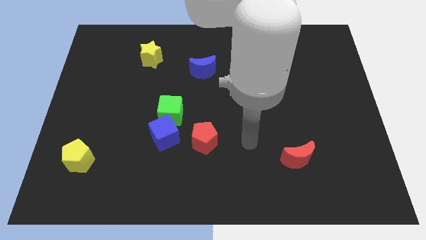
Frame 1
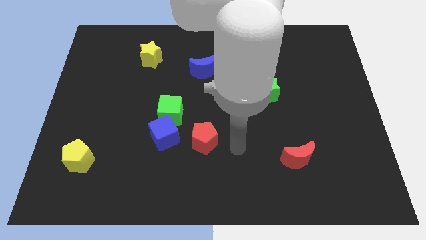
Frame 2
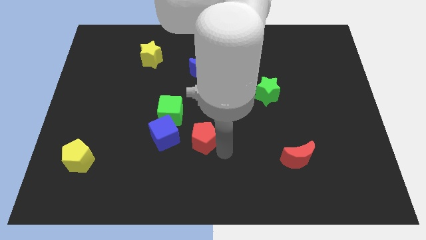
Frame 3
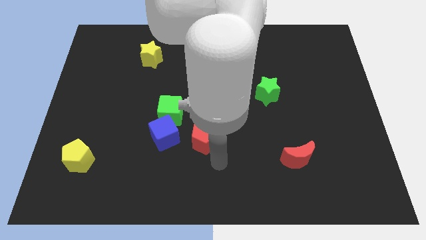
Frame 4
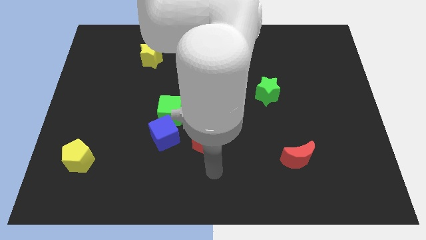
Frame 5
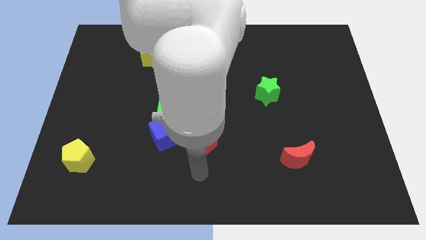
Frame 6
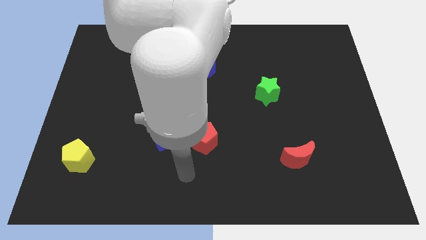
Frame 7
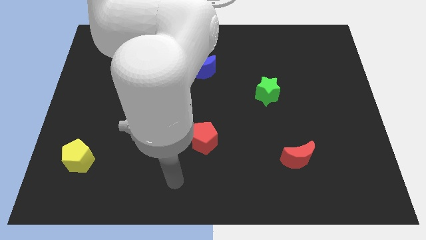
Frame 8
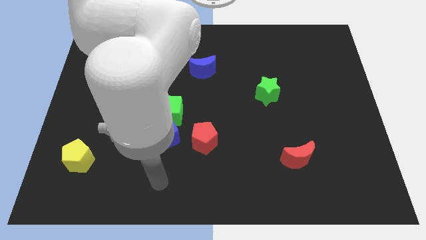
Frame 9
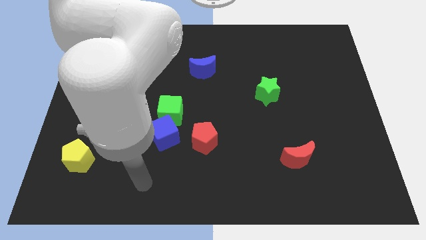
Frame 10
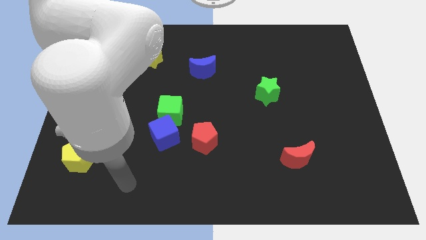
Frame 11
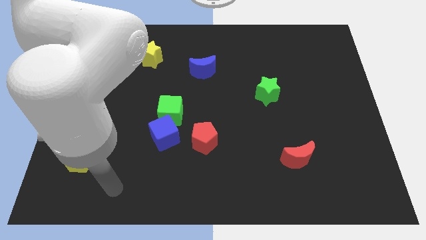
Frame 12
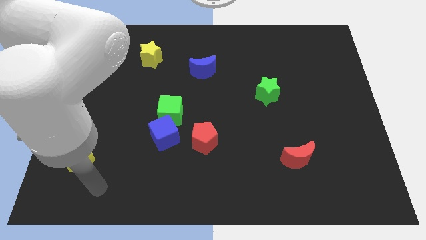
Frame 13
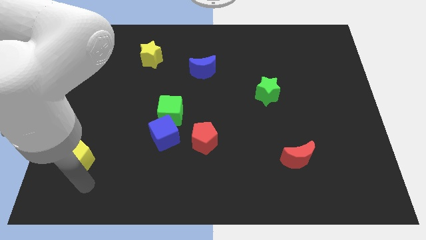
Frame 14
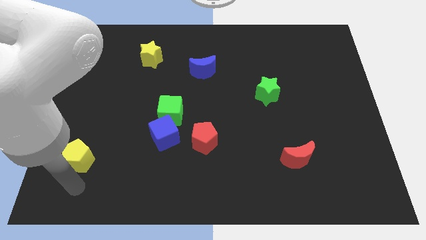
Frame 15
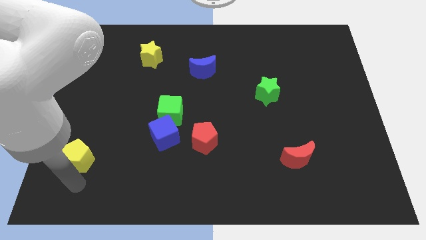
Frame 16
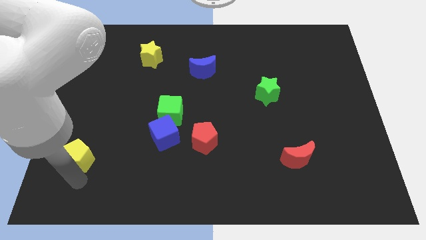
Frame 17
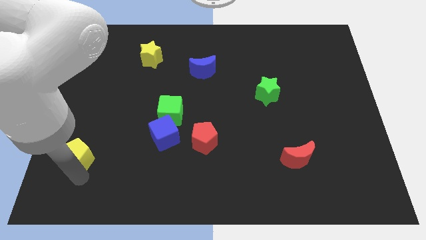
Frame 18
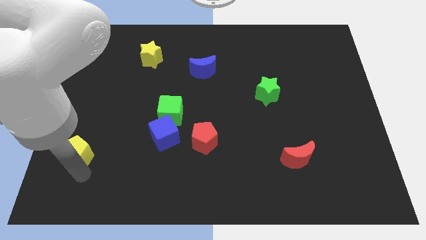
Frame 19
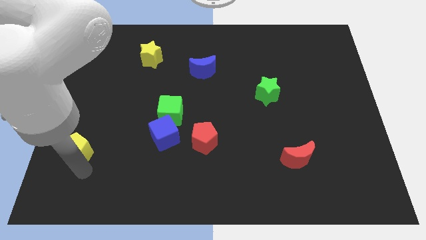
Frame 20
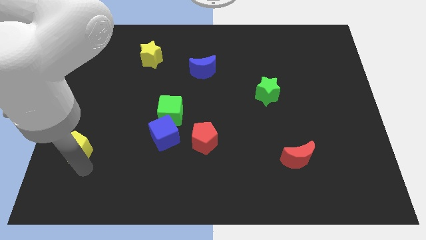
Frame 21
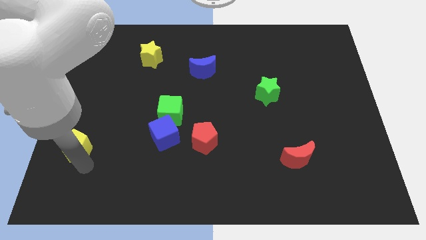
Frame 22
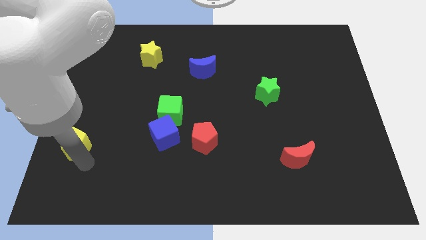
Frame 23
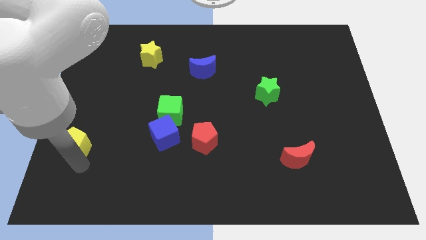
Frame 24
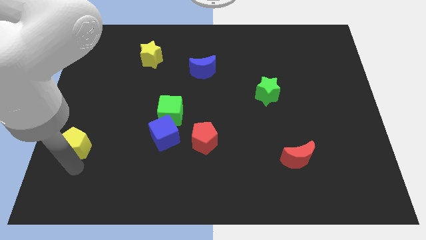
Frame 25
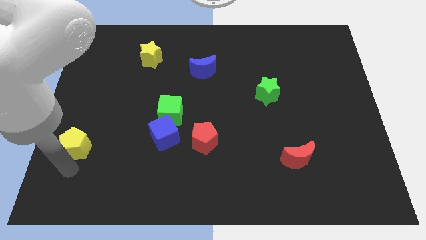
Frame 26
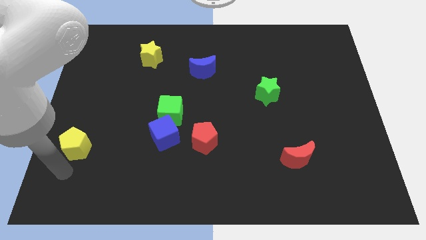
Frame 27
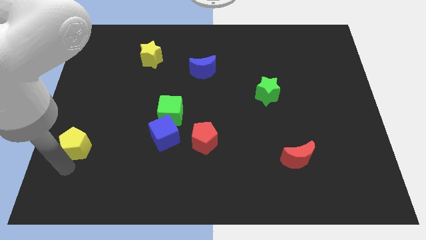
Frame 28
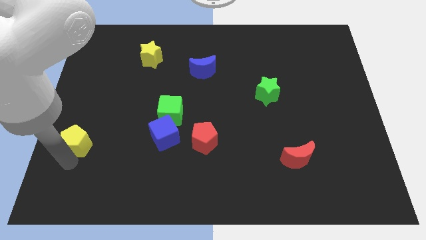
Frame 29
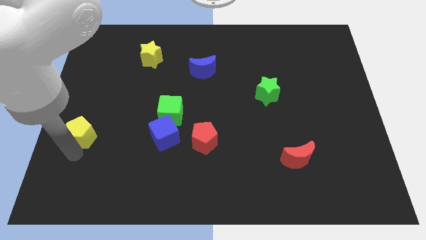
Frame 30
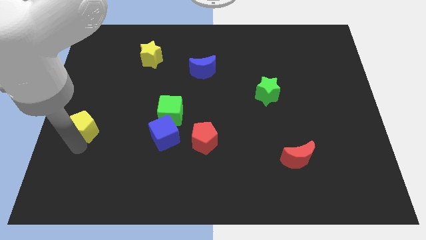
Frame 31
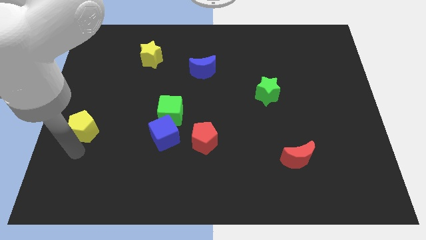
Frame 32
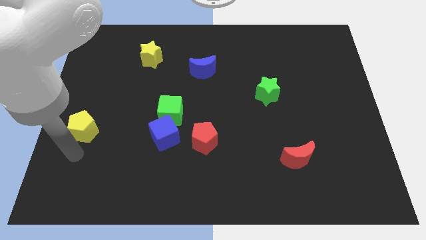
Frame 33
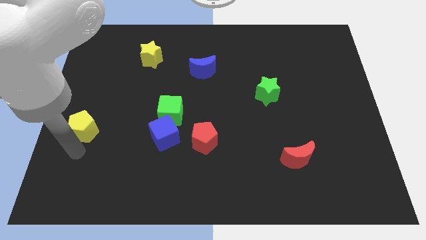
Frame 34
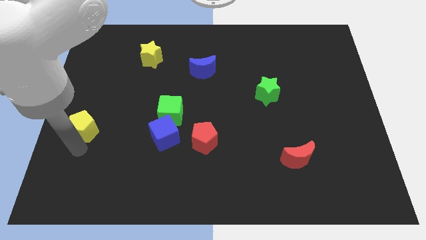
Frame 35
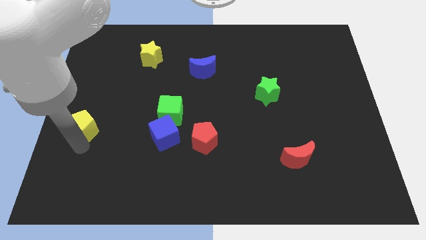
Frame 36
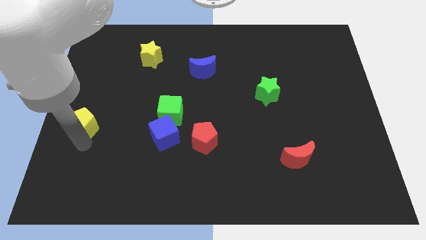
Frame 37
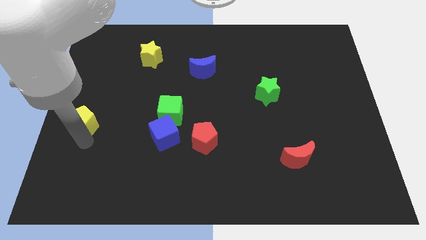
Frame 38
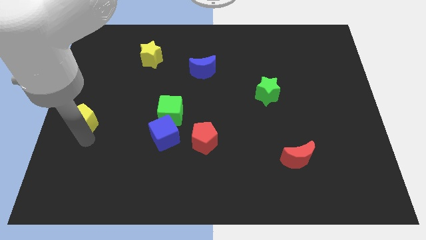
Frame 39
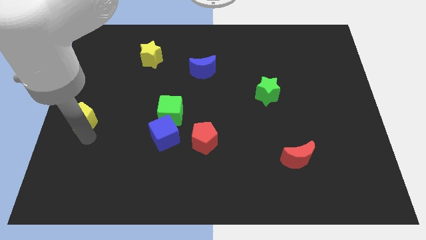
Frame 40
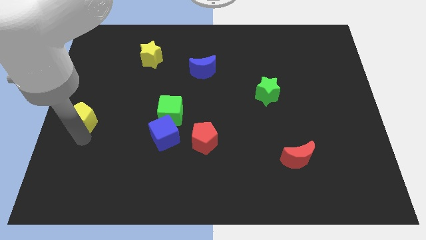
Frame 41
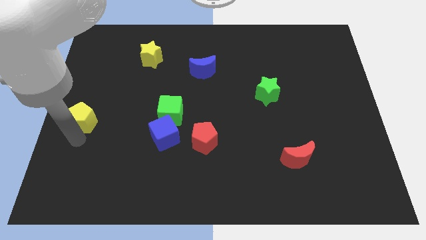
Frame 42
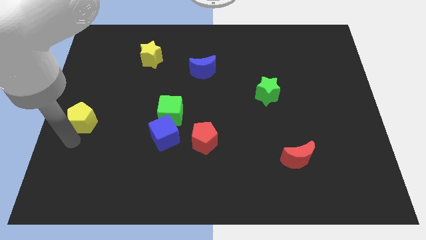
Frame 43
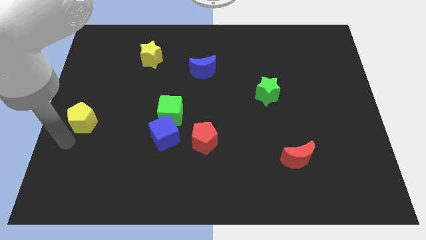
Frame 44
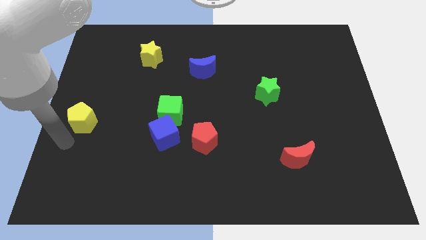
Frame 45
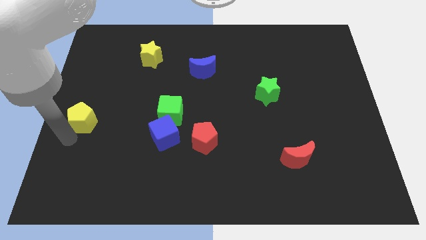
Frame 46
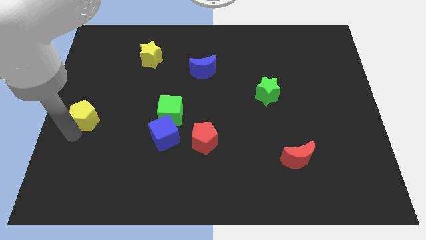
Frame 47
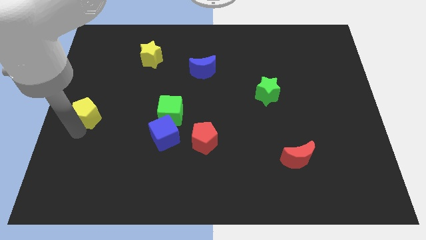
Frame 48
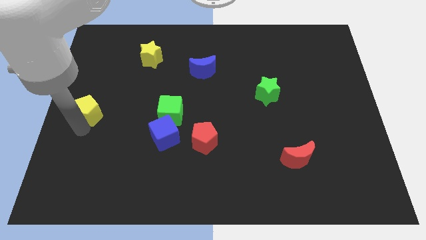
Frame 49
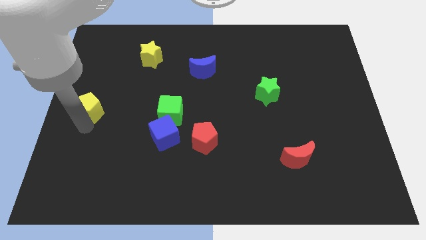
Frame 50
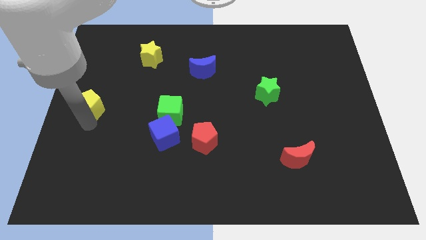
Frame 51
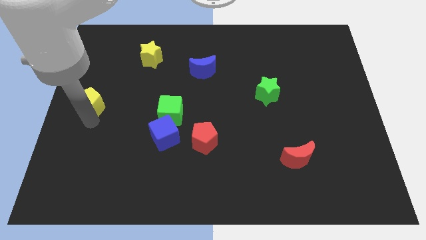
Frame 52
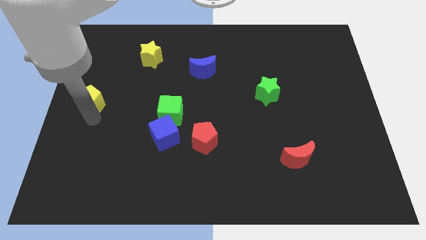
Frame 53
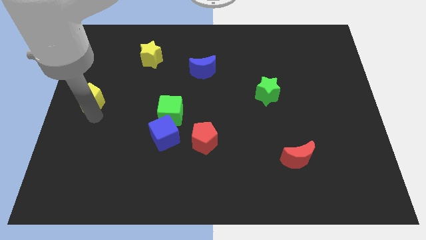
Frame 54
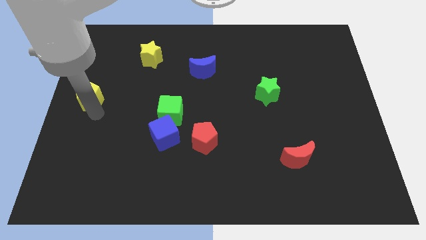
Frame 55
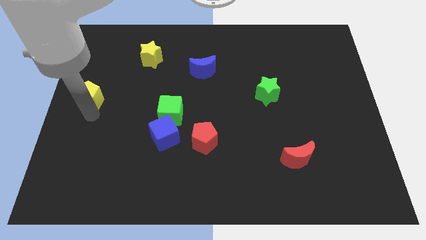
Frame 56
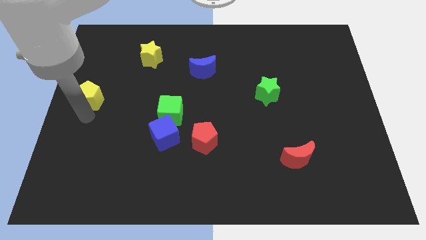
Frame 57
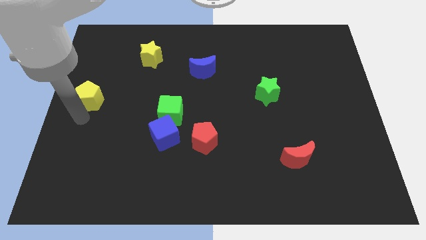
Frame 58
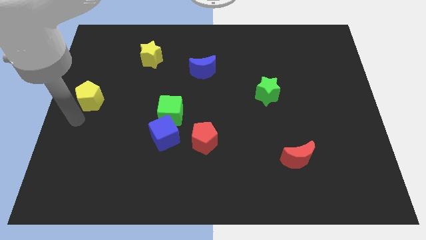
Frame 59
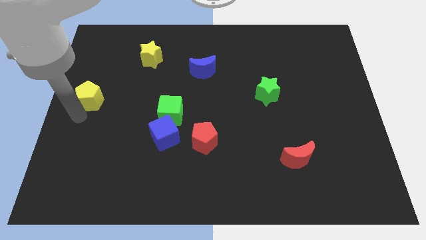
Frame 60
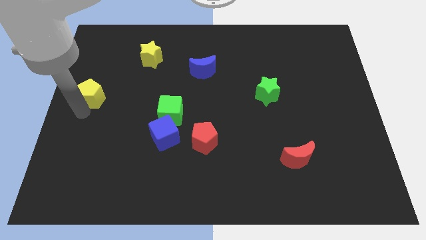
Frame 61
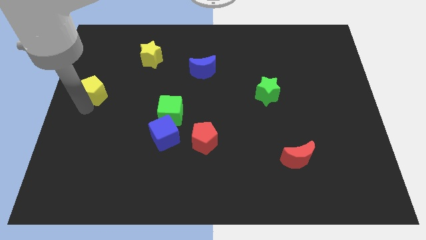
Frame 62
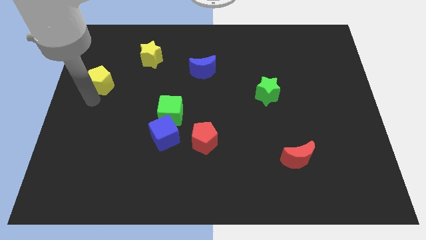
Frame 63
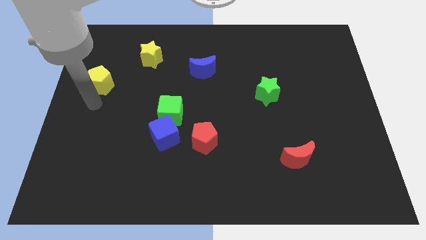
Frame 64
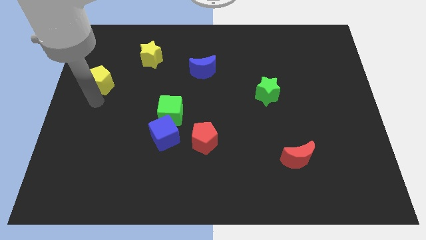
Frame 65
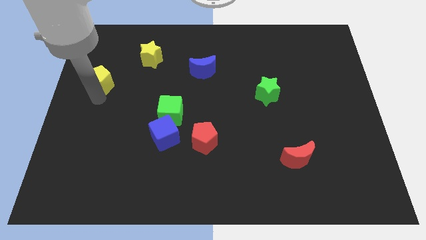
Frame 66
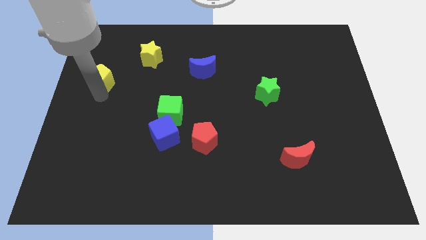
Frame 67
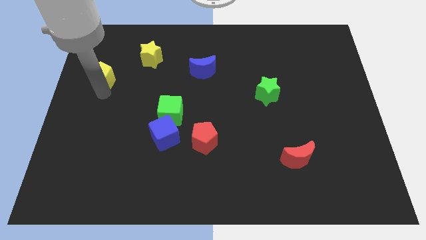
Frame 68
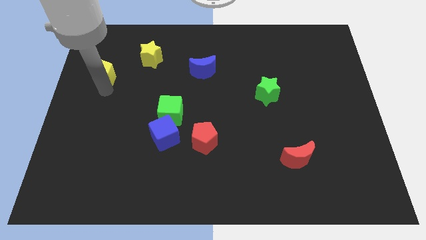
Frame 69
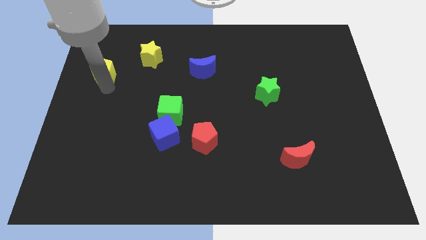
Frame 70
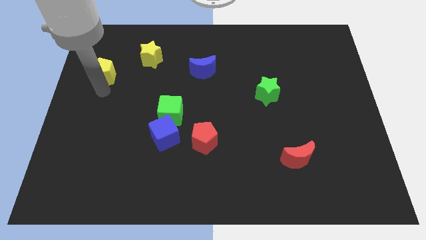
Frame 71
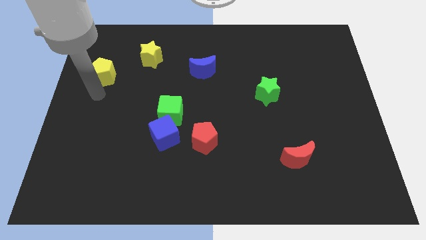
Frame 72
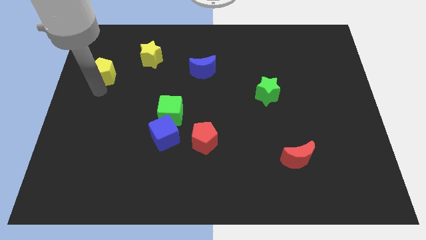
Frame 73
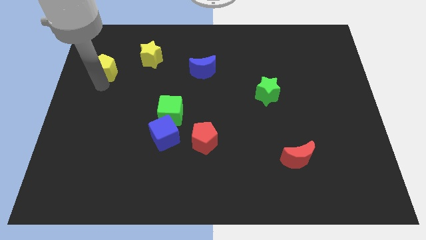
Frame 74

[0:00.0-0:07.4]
push the yellow pentagon to the left of the yellow star

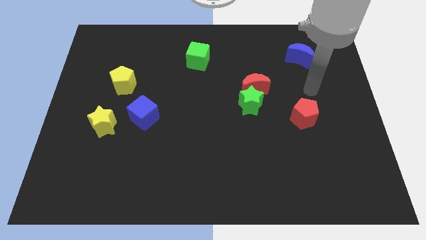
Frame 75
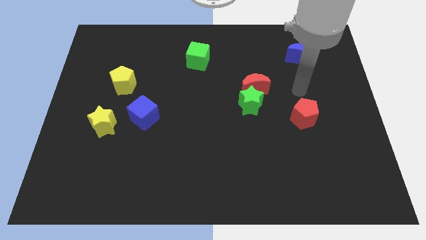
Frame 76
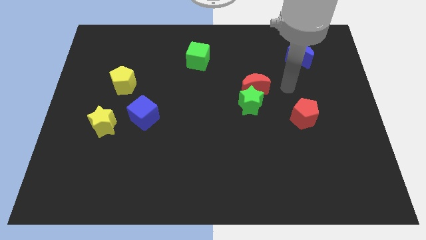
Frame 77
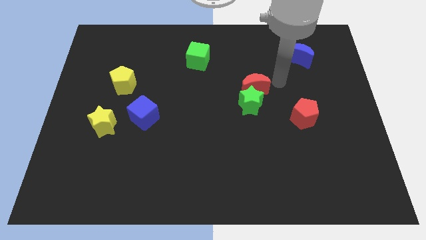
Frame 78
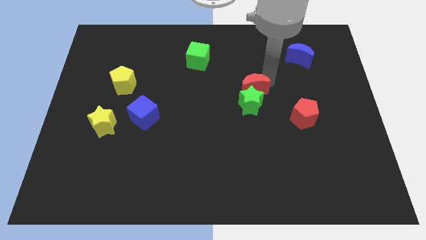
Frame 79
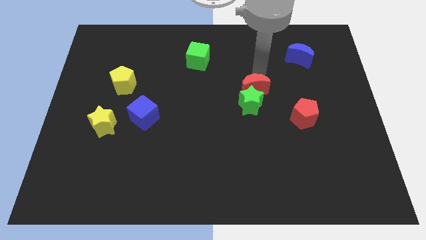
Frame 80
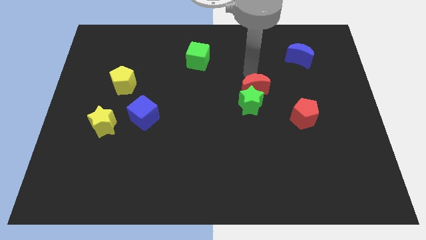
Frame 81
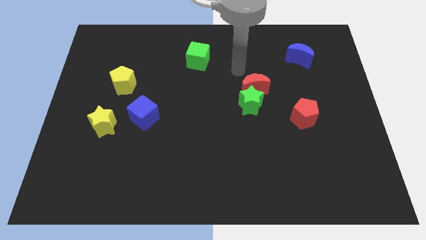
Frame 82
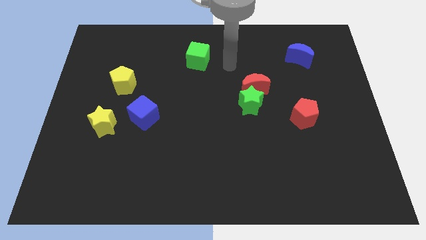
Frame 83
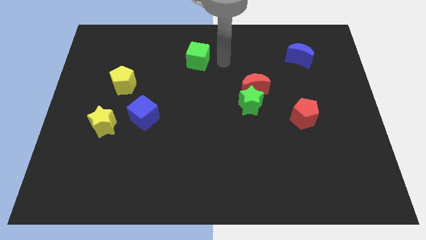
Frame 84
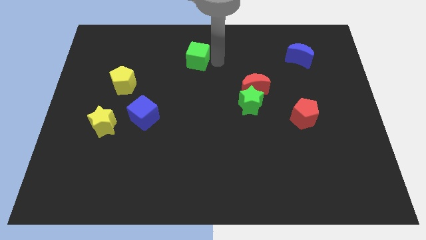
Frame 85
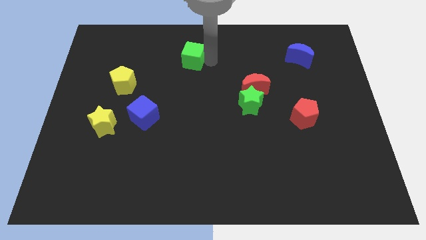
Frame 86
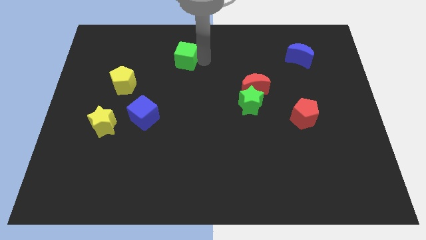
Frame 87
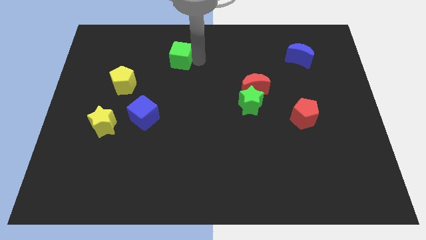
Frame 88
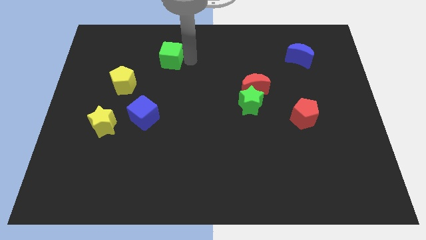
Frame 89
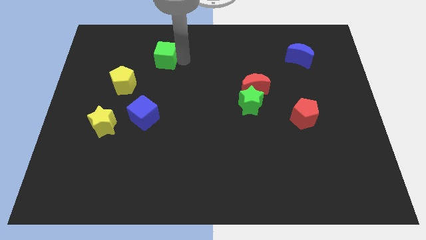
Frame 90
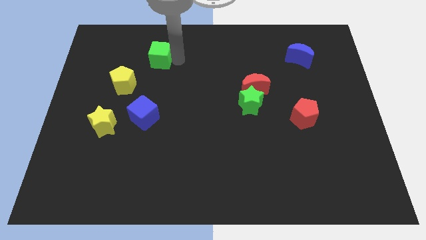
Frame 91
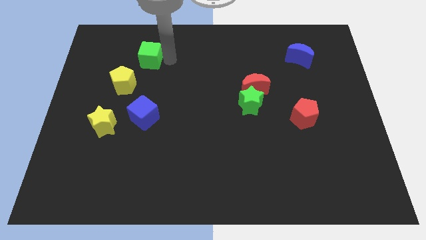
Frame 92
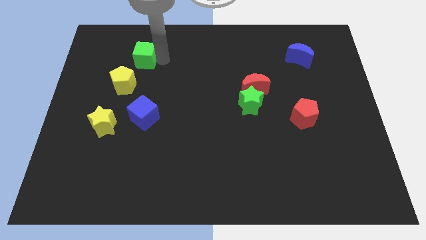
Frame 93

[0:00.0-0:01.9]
slide the green cube above the yellow pentagon
